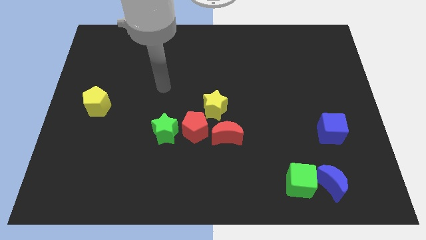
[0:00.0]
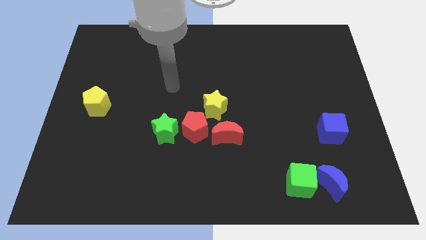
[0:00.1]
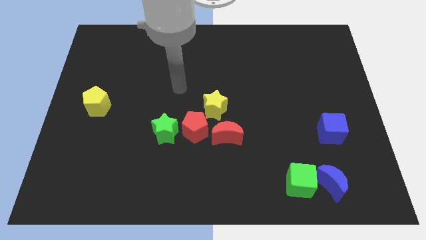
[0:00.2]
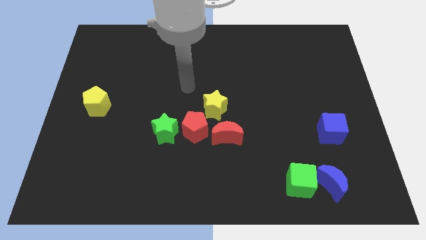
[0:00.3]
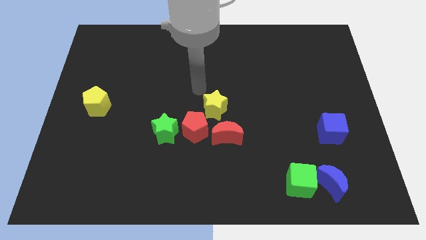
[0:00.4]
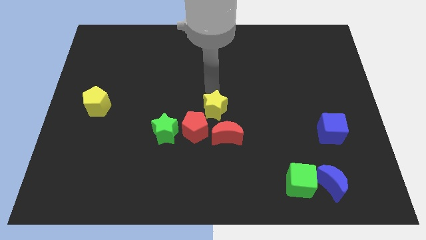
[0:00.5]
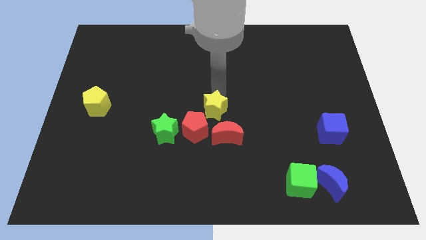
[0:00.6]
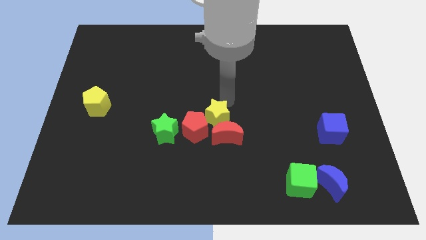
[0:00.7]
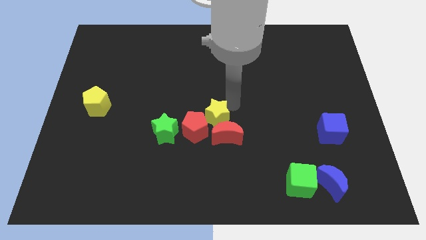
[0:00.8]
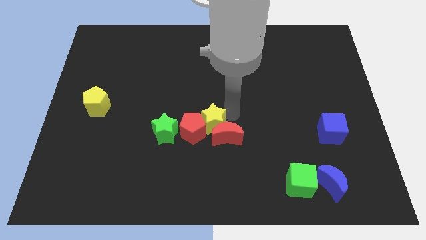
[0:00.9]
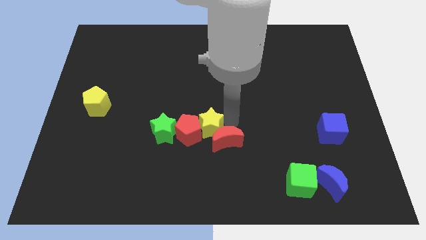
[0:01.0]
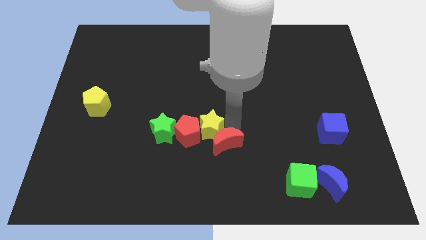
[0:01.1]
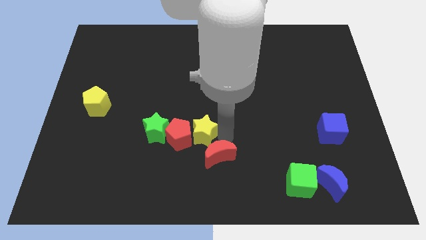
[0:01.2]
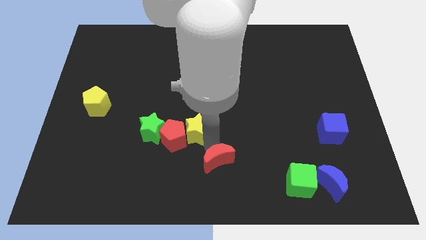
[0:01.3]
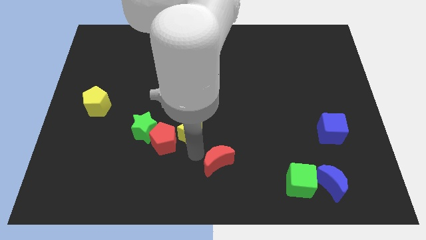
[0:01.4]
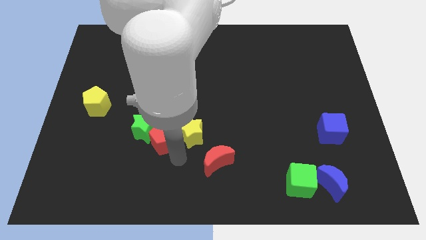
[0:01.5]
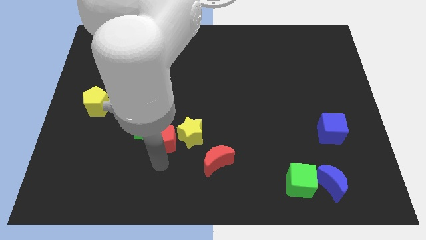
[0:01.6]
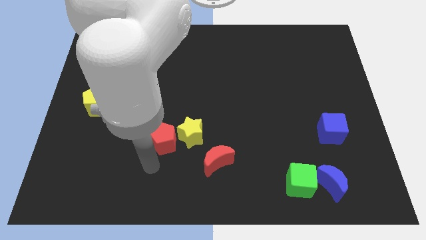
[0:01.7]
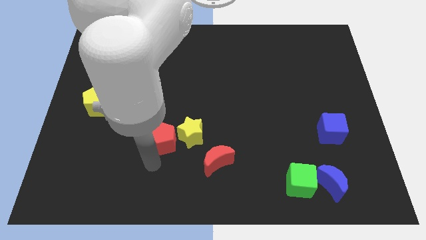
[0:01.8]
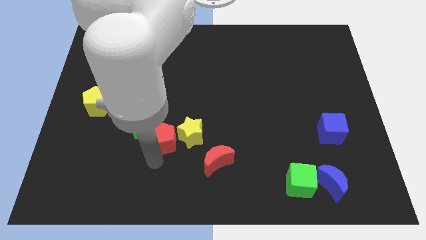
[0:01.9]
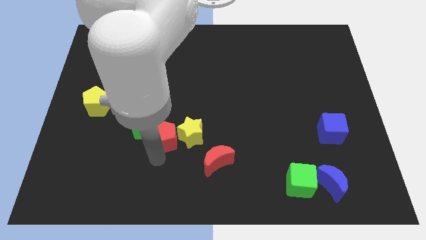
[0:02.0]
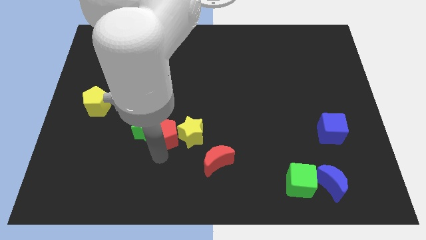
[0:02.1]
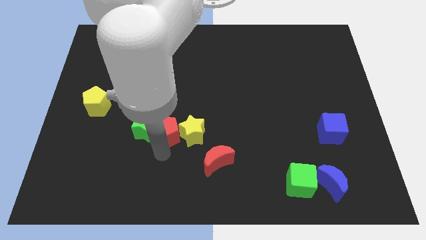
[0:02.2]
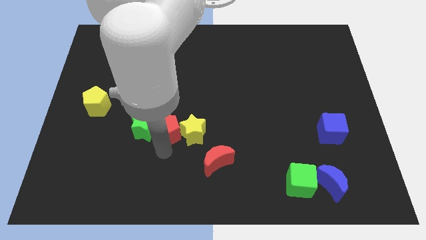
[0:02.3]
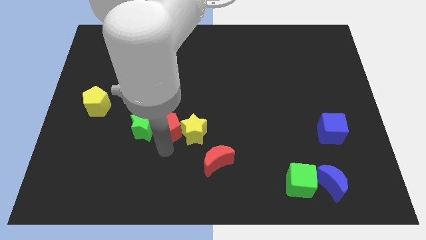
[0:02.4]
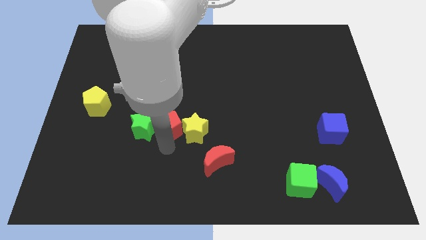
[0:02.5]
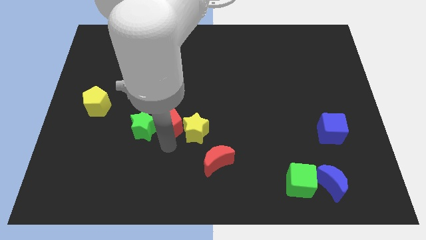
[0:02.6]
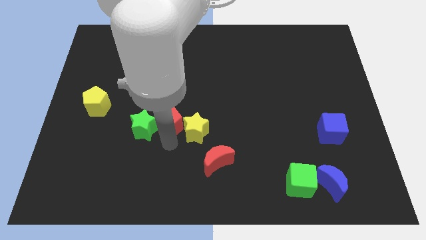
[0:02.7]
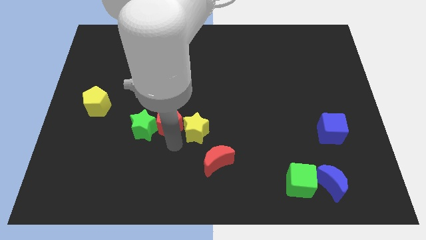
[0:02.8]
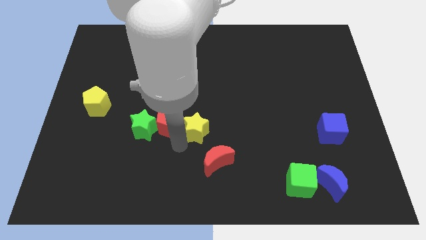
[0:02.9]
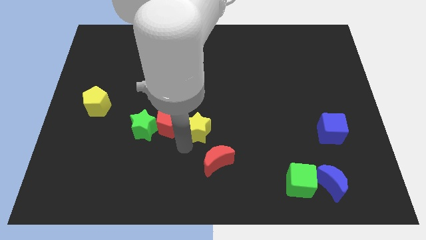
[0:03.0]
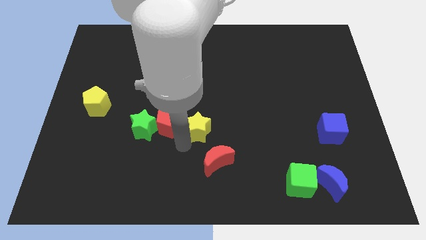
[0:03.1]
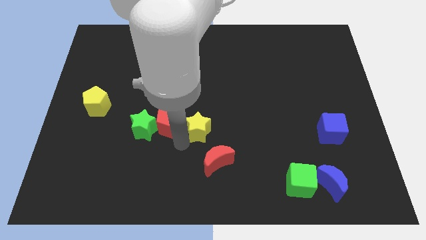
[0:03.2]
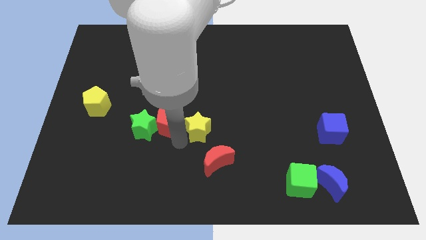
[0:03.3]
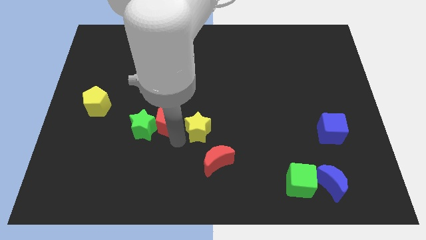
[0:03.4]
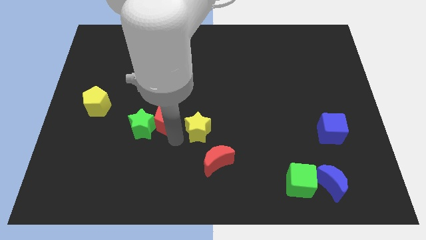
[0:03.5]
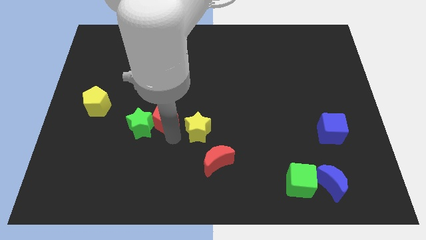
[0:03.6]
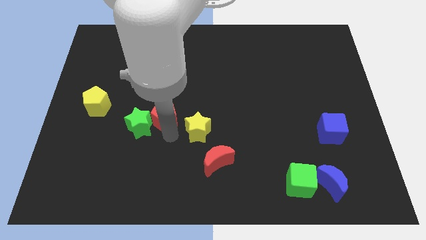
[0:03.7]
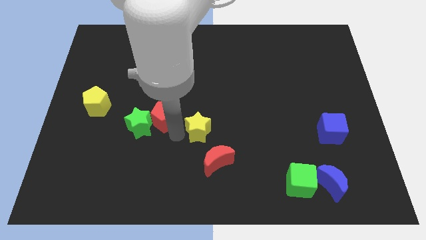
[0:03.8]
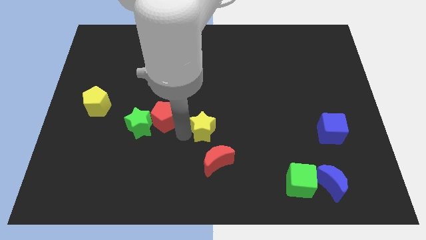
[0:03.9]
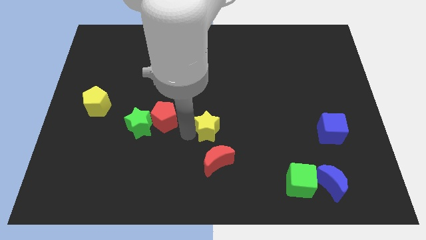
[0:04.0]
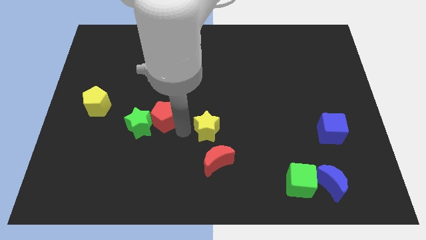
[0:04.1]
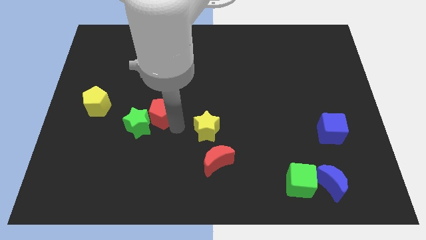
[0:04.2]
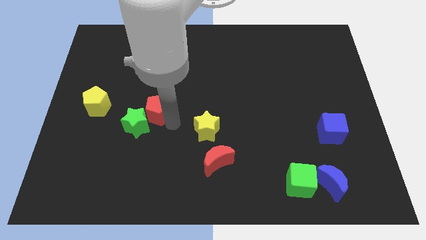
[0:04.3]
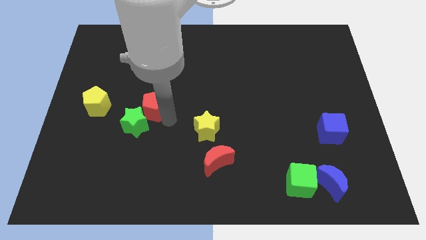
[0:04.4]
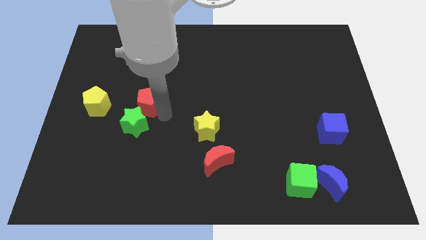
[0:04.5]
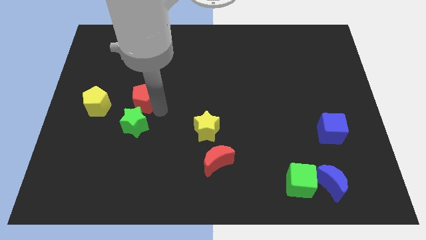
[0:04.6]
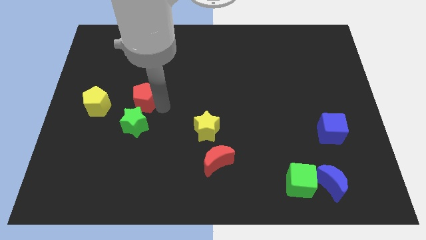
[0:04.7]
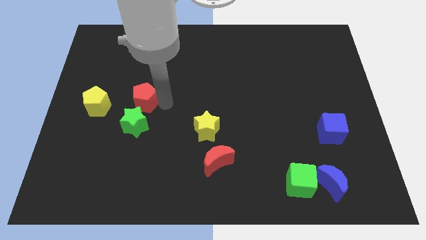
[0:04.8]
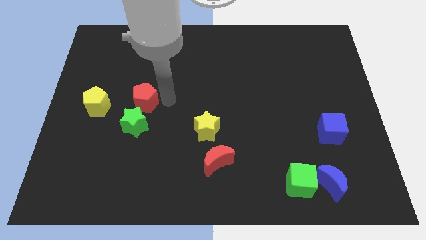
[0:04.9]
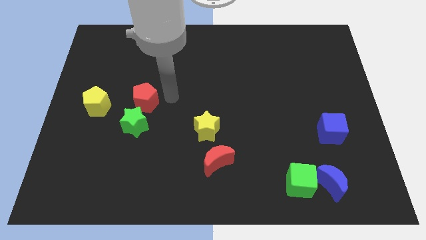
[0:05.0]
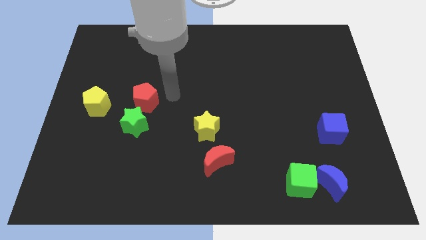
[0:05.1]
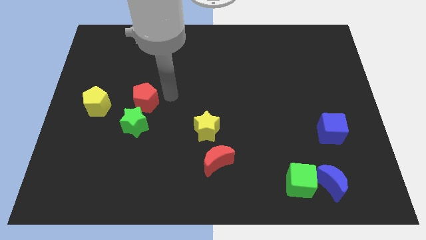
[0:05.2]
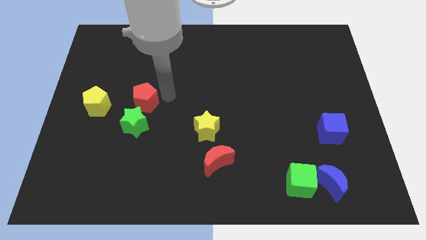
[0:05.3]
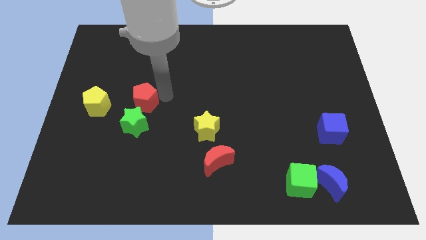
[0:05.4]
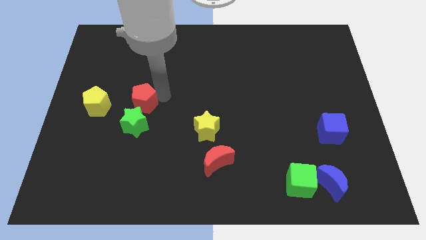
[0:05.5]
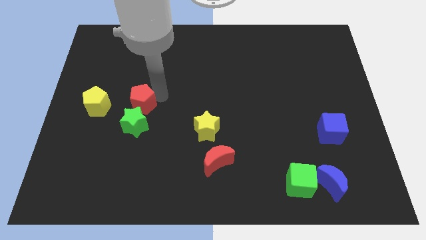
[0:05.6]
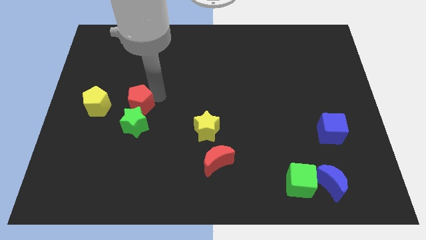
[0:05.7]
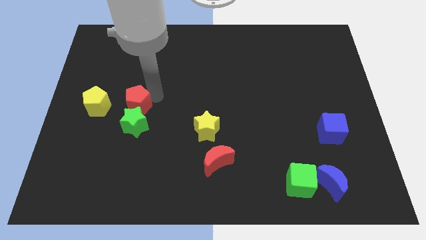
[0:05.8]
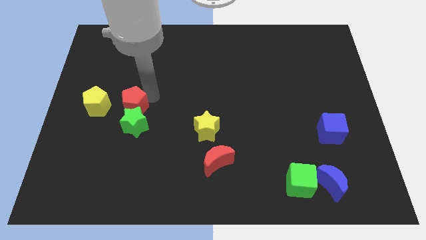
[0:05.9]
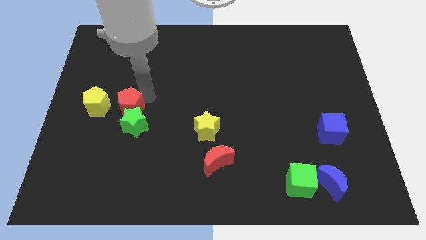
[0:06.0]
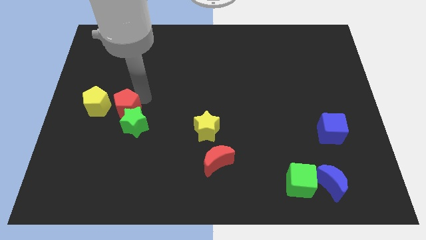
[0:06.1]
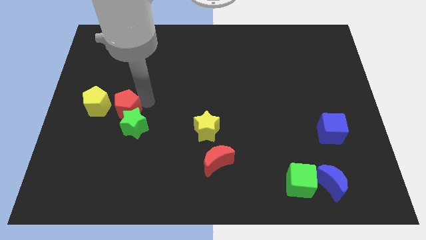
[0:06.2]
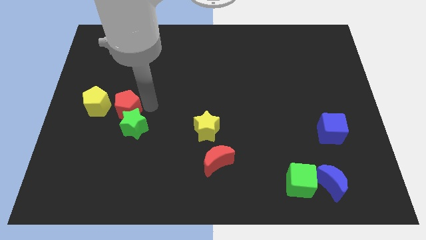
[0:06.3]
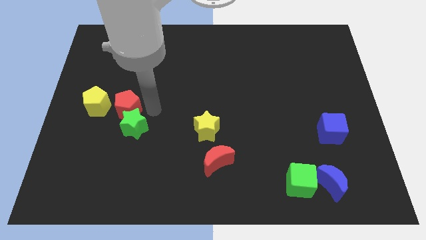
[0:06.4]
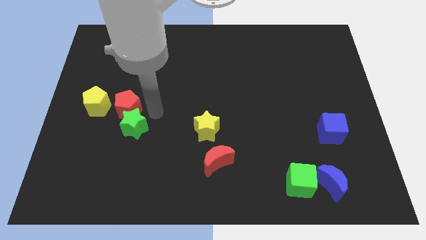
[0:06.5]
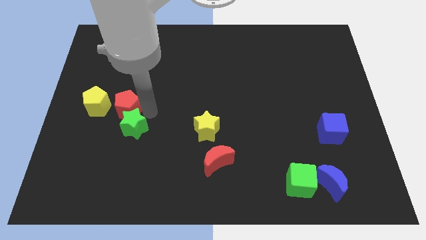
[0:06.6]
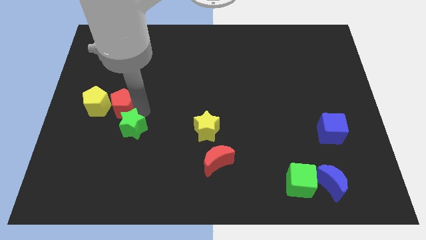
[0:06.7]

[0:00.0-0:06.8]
move the red pentagon to the yellow pentagon
